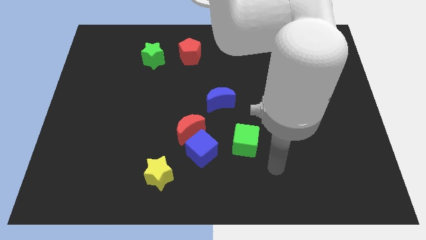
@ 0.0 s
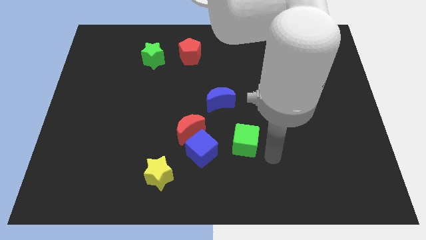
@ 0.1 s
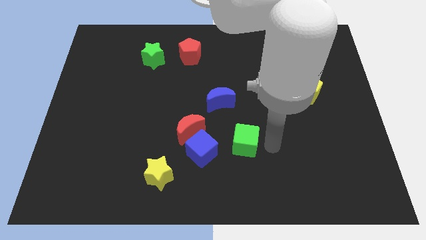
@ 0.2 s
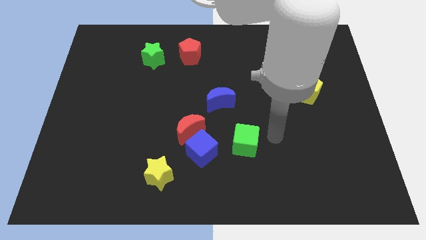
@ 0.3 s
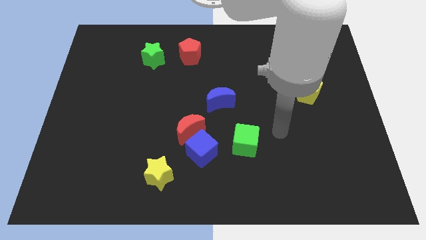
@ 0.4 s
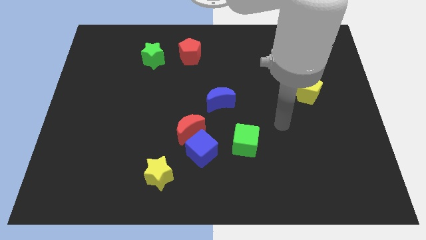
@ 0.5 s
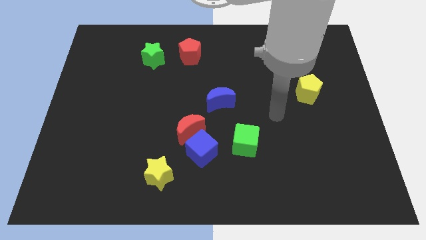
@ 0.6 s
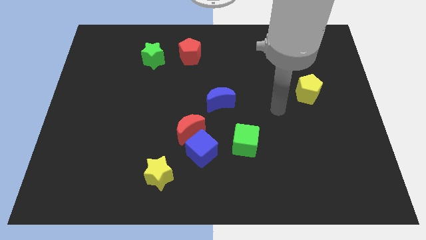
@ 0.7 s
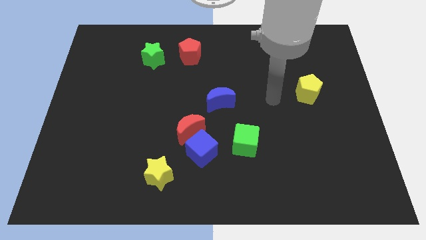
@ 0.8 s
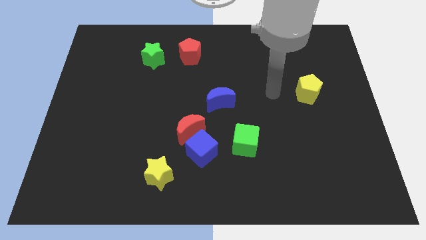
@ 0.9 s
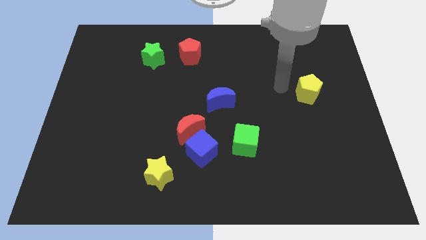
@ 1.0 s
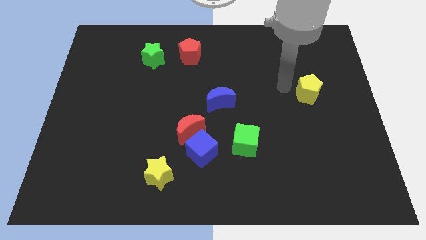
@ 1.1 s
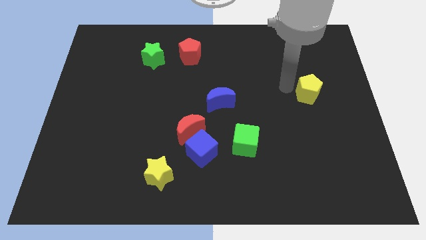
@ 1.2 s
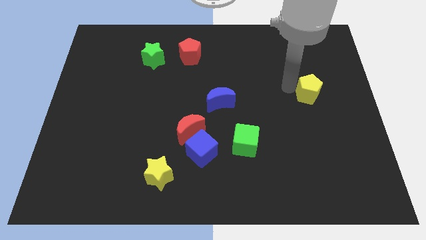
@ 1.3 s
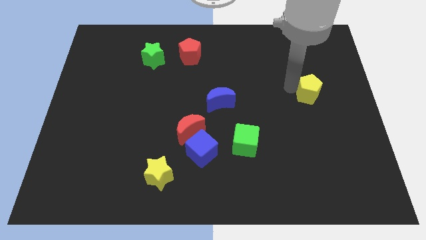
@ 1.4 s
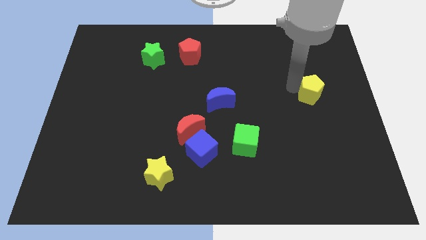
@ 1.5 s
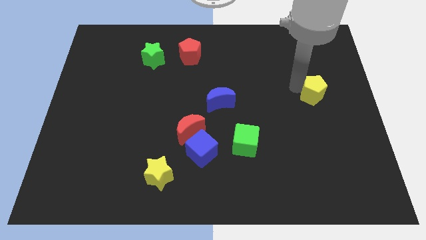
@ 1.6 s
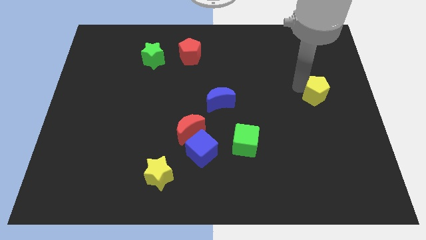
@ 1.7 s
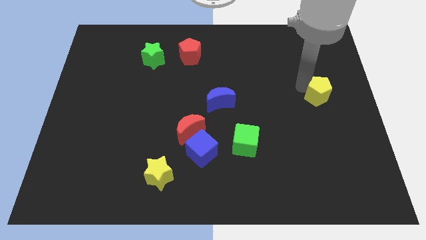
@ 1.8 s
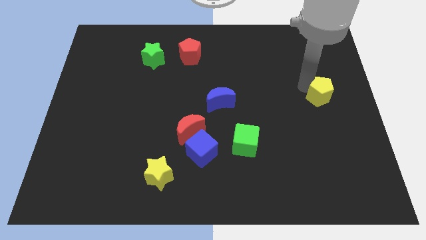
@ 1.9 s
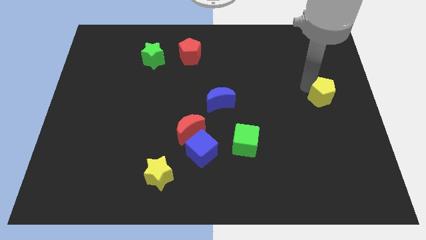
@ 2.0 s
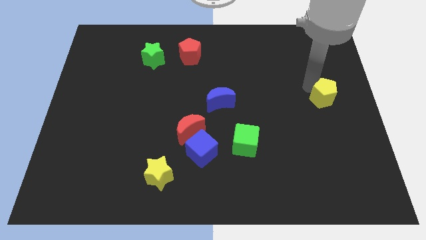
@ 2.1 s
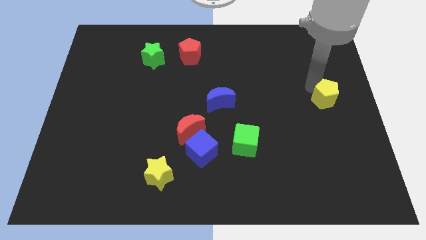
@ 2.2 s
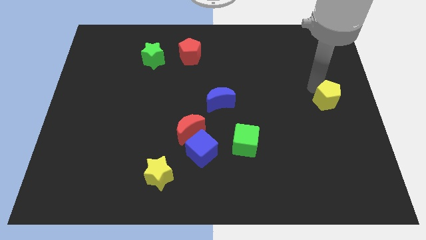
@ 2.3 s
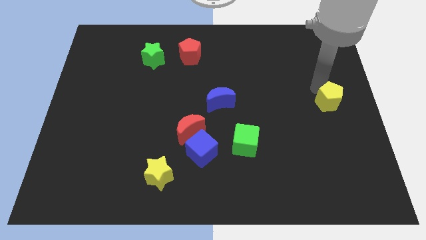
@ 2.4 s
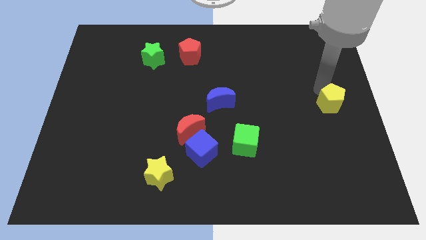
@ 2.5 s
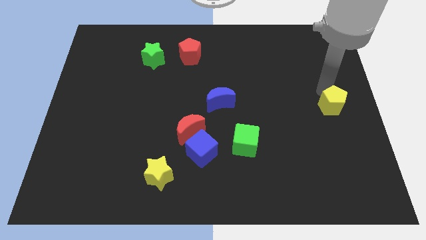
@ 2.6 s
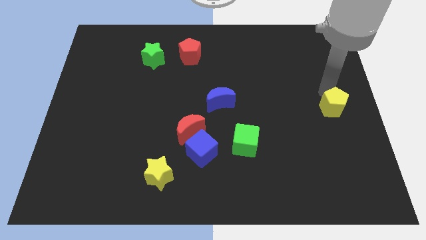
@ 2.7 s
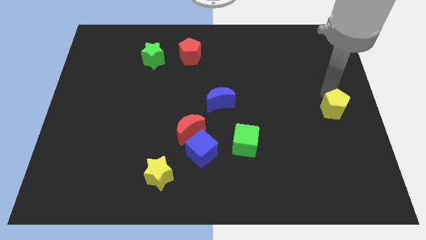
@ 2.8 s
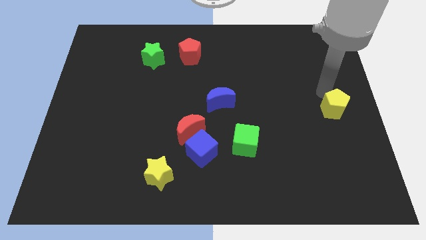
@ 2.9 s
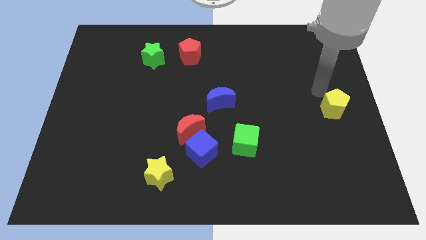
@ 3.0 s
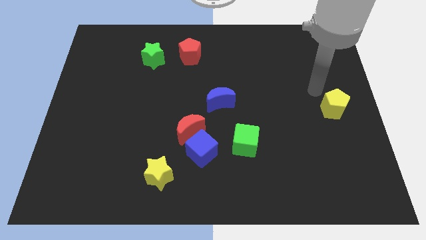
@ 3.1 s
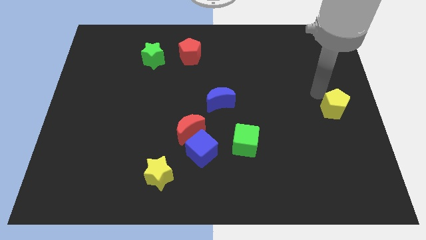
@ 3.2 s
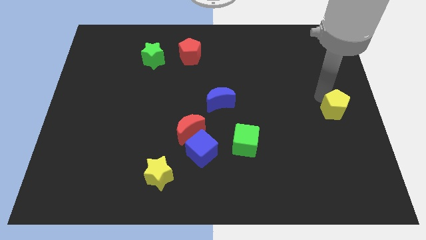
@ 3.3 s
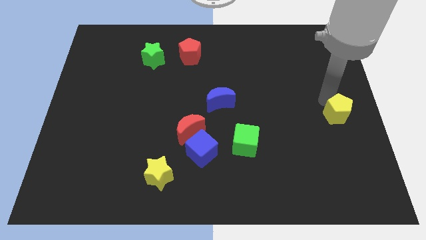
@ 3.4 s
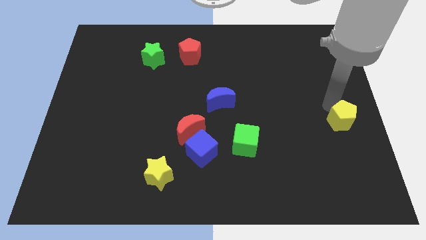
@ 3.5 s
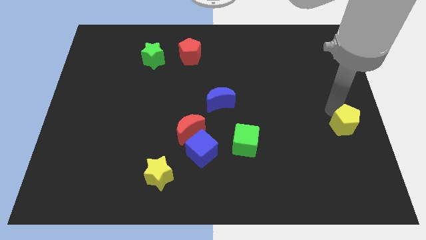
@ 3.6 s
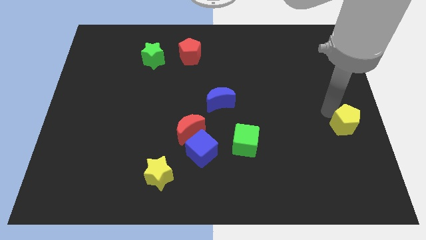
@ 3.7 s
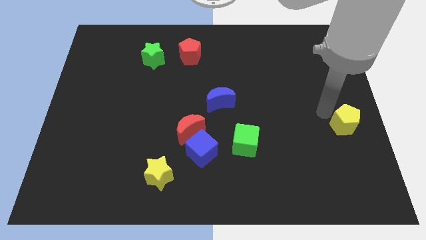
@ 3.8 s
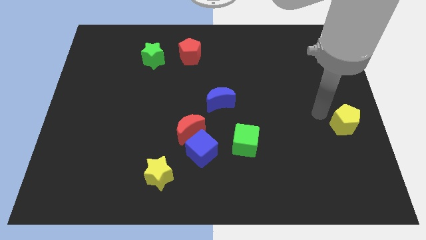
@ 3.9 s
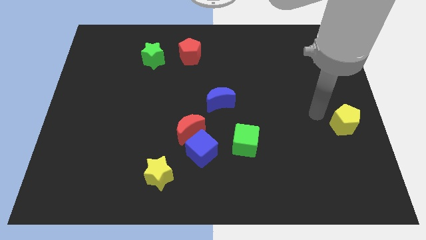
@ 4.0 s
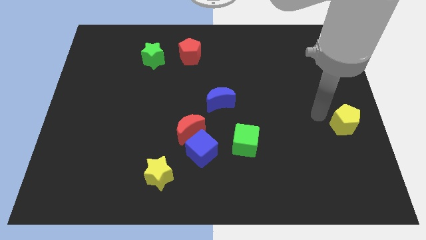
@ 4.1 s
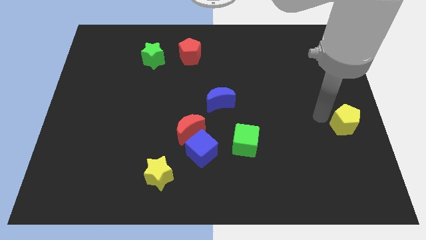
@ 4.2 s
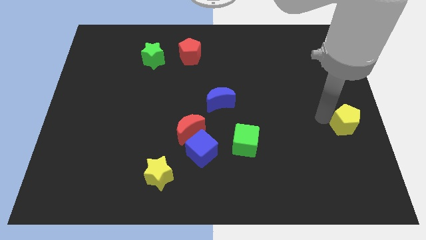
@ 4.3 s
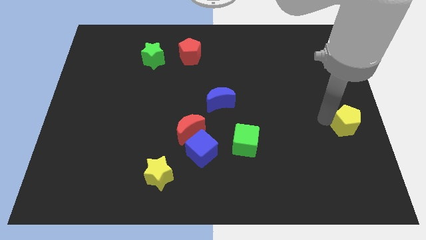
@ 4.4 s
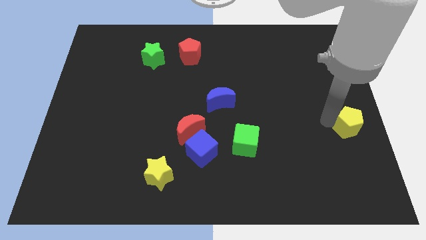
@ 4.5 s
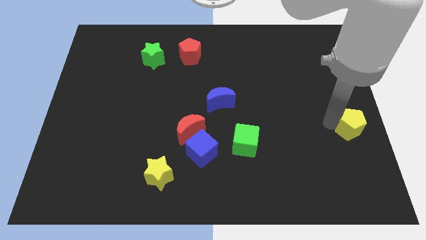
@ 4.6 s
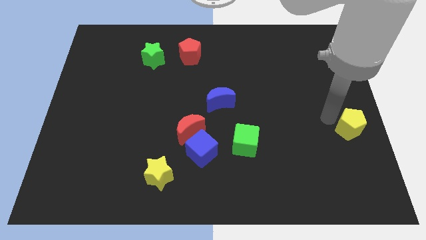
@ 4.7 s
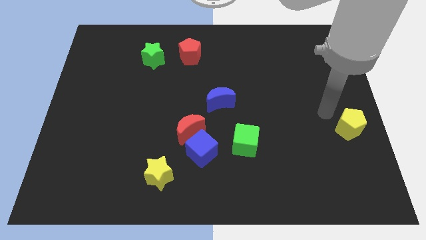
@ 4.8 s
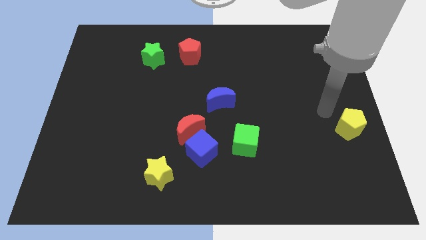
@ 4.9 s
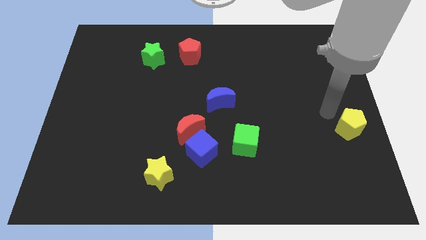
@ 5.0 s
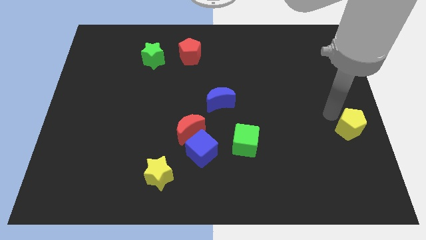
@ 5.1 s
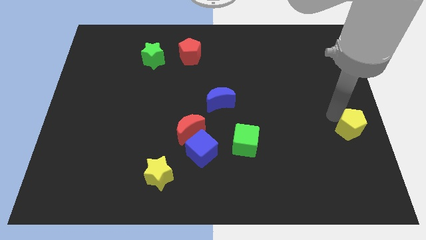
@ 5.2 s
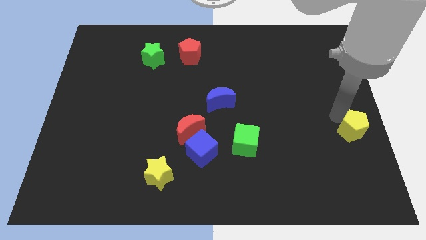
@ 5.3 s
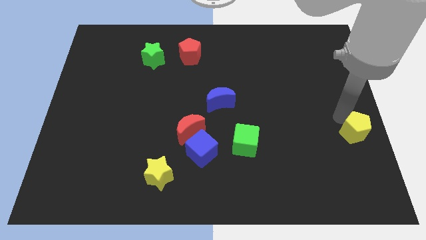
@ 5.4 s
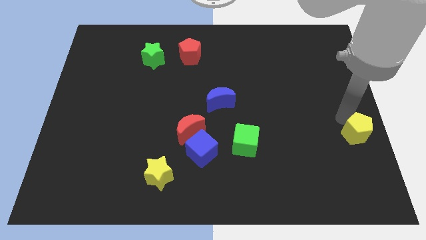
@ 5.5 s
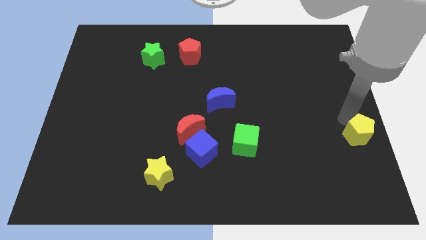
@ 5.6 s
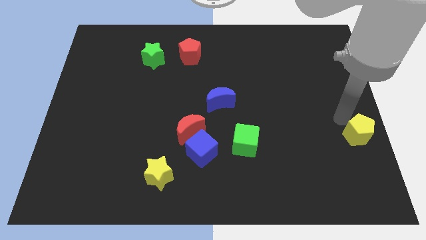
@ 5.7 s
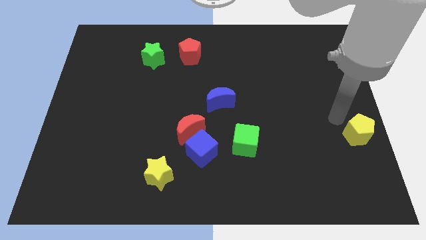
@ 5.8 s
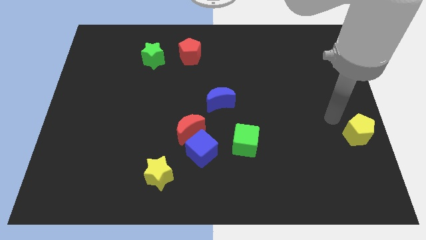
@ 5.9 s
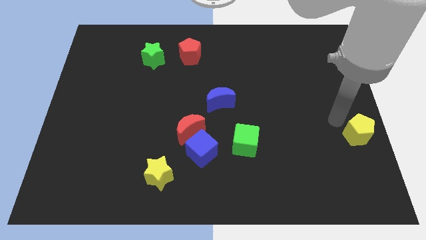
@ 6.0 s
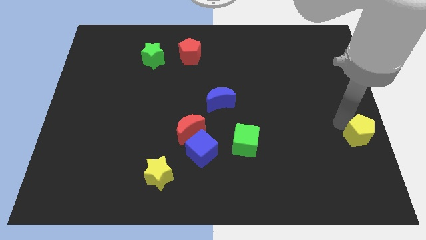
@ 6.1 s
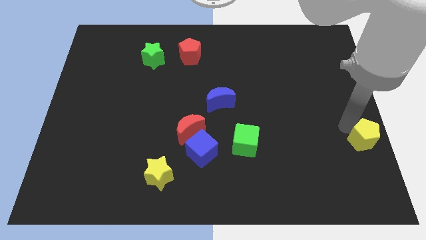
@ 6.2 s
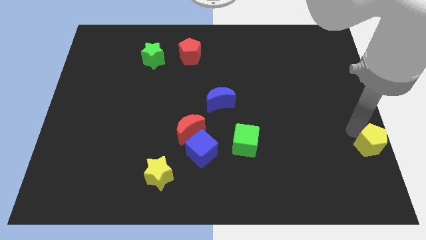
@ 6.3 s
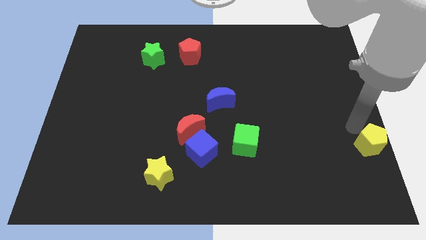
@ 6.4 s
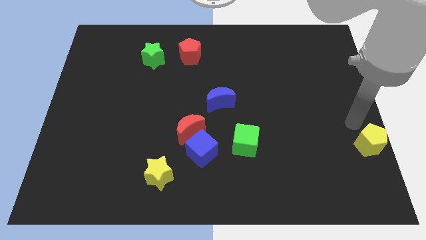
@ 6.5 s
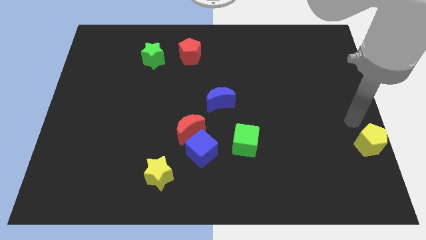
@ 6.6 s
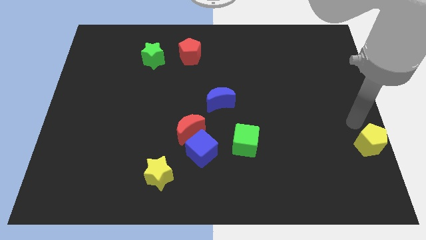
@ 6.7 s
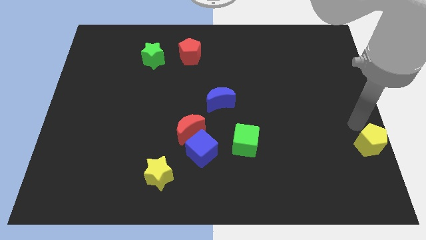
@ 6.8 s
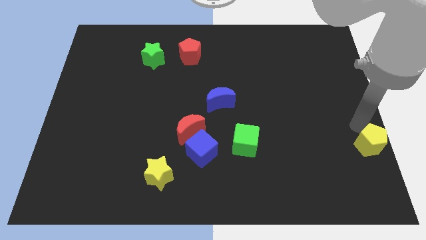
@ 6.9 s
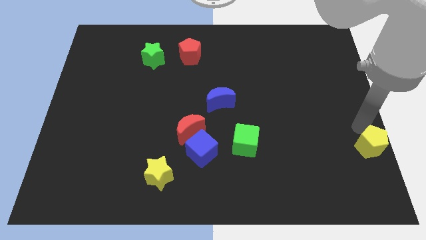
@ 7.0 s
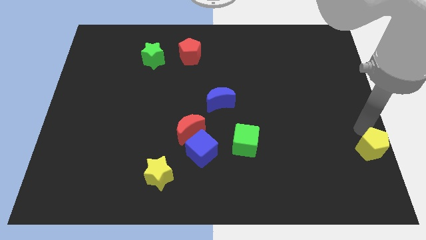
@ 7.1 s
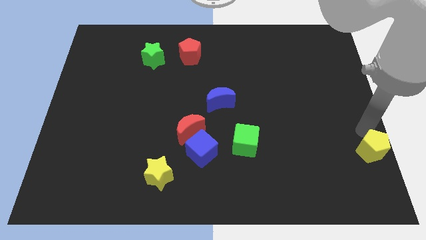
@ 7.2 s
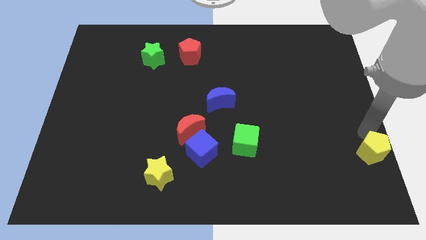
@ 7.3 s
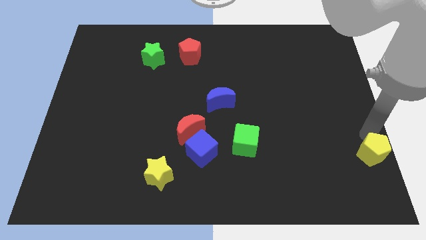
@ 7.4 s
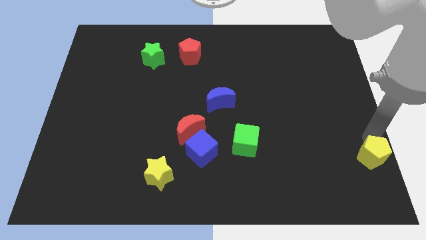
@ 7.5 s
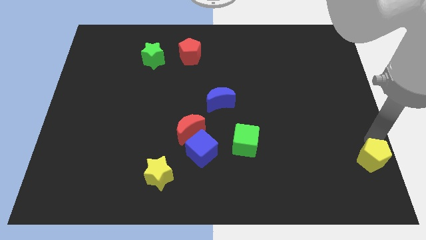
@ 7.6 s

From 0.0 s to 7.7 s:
move the yellow pentagon to the bottom right corner
